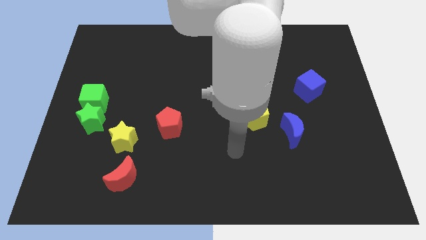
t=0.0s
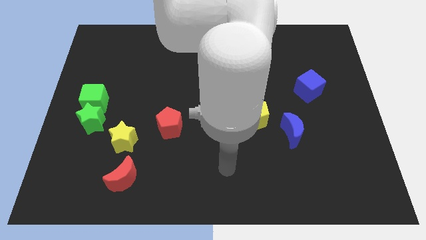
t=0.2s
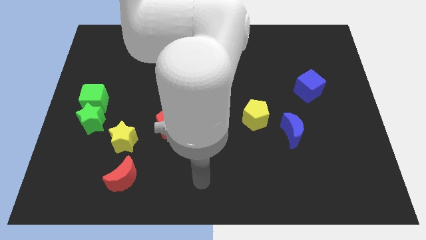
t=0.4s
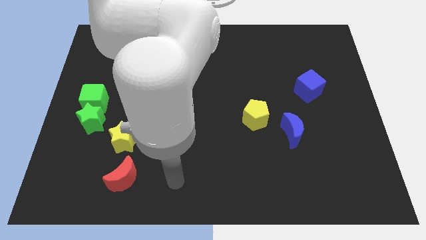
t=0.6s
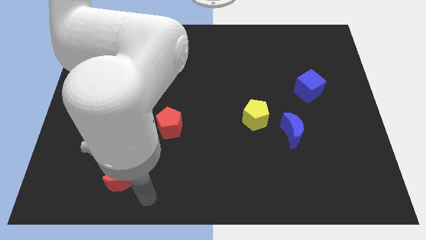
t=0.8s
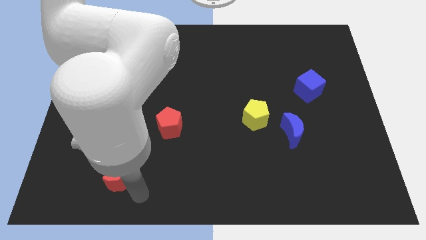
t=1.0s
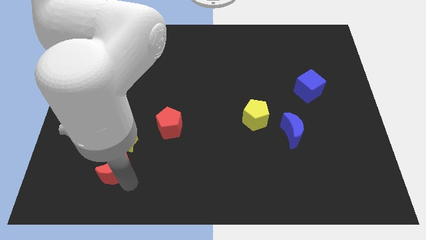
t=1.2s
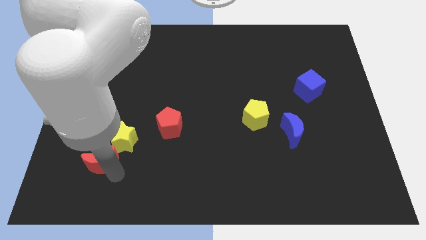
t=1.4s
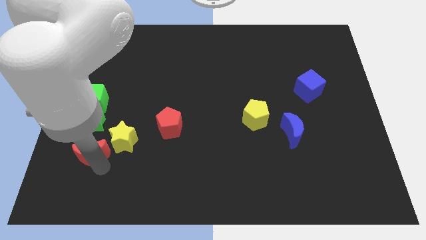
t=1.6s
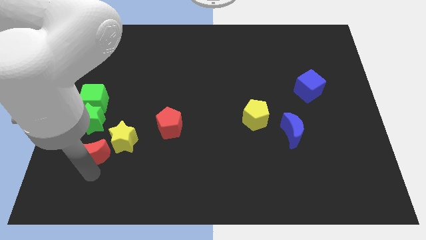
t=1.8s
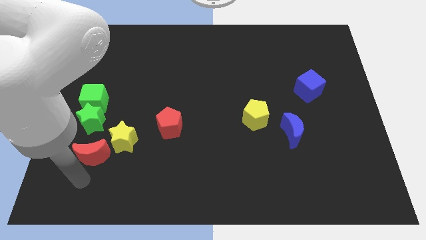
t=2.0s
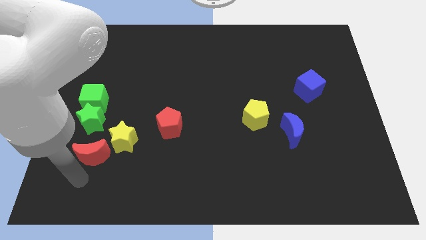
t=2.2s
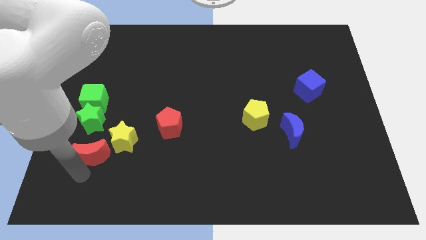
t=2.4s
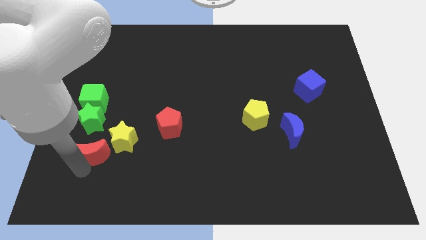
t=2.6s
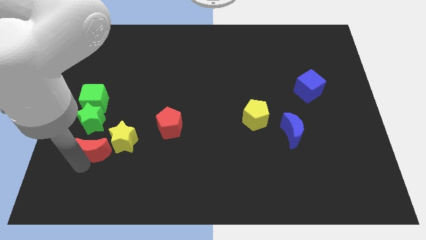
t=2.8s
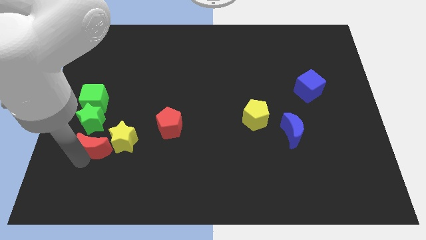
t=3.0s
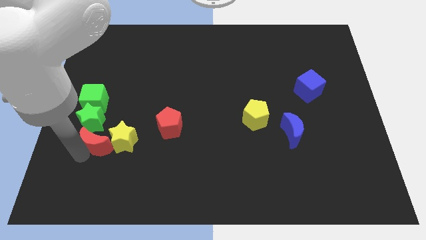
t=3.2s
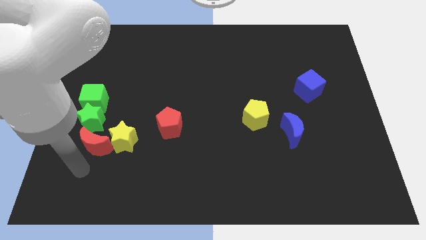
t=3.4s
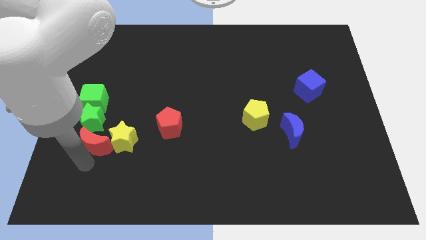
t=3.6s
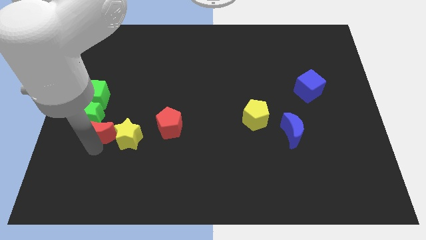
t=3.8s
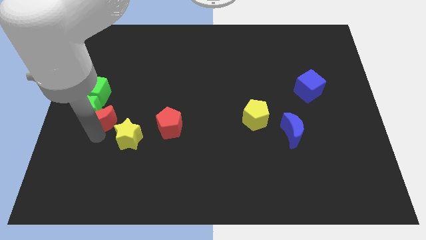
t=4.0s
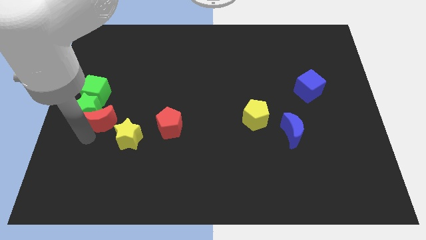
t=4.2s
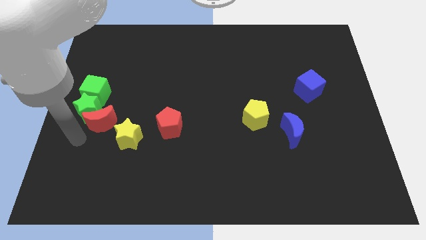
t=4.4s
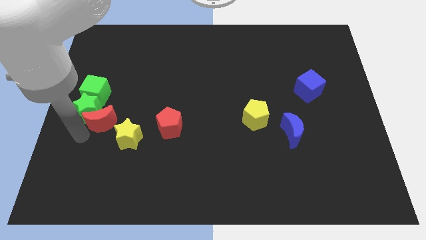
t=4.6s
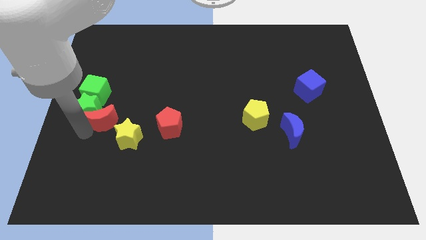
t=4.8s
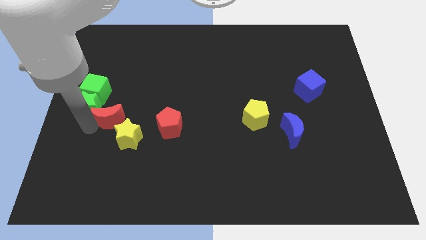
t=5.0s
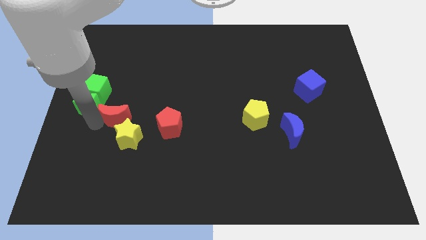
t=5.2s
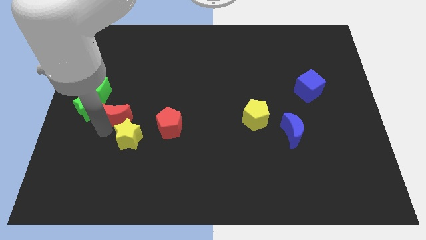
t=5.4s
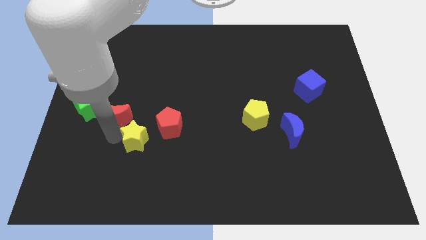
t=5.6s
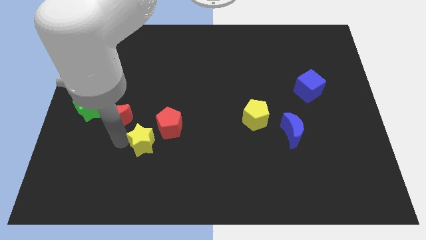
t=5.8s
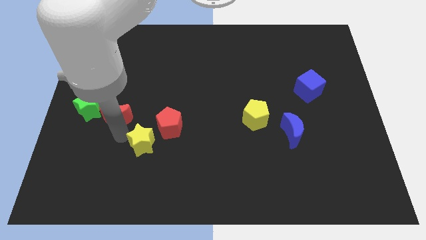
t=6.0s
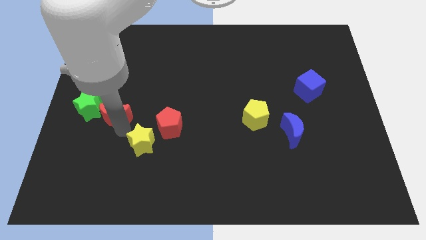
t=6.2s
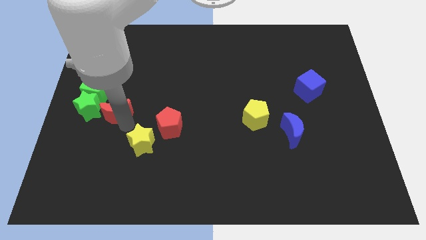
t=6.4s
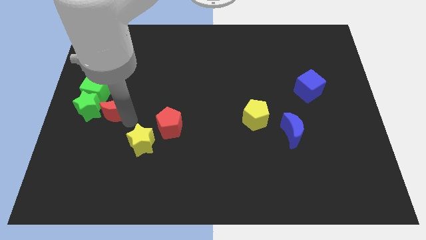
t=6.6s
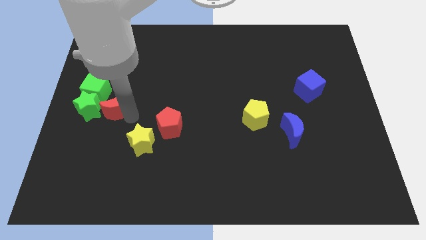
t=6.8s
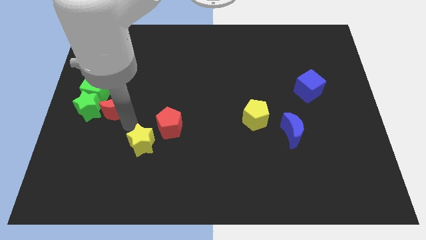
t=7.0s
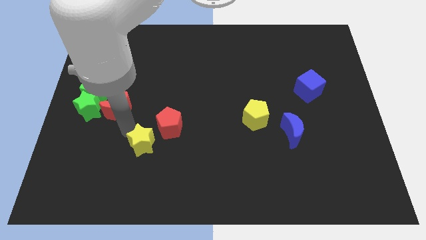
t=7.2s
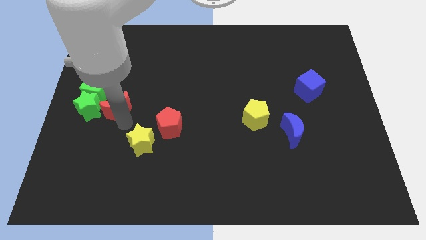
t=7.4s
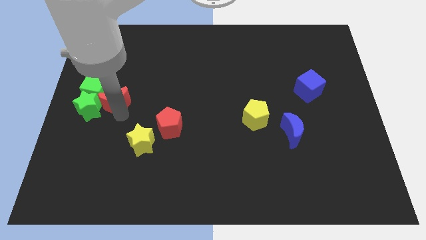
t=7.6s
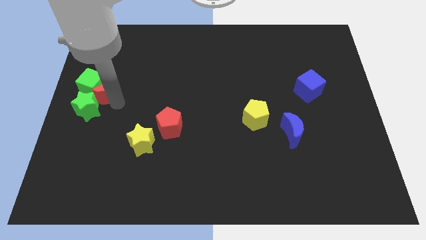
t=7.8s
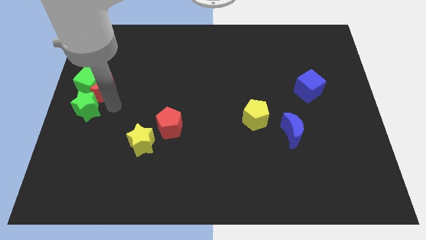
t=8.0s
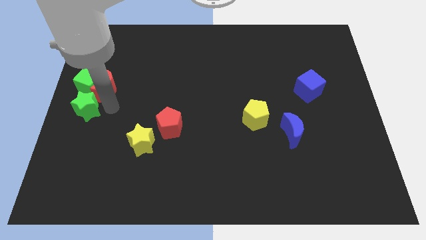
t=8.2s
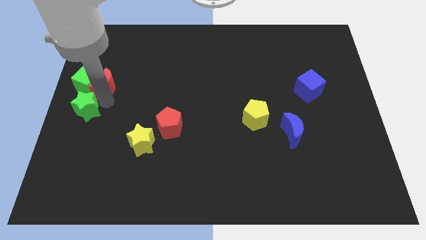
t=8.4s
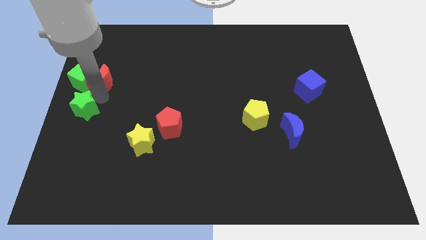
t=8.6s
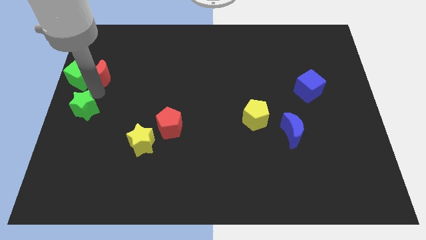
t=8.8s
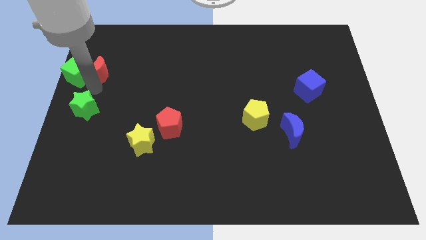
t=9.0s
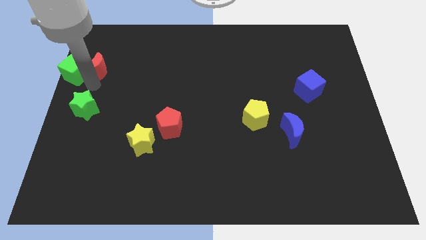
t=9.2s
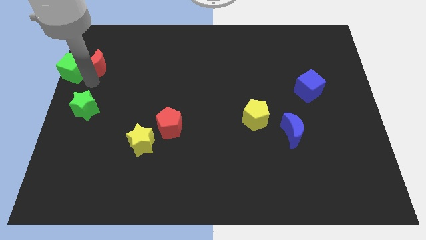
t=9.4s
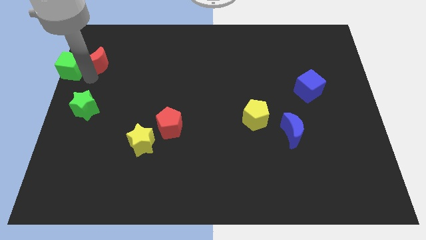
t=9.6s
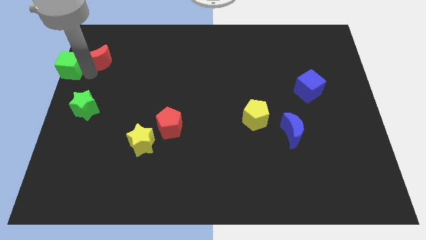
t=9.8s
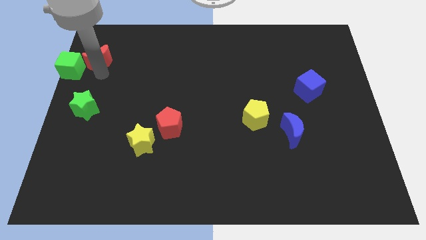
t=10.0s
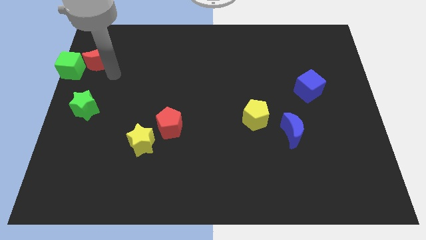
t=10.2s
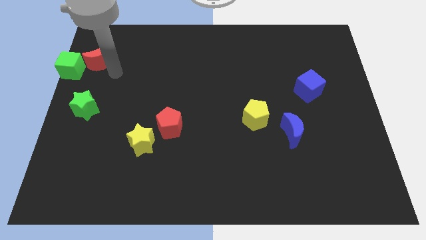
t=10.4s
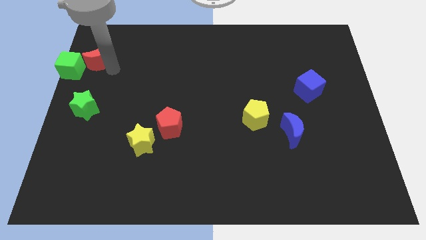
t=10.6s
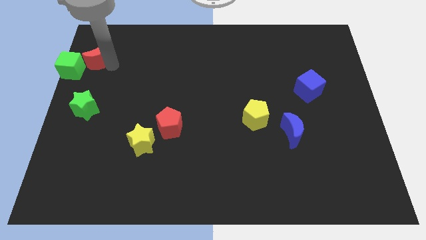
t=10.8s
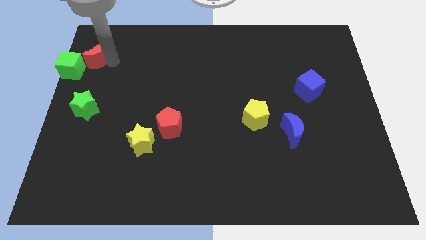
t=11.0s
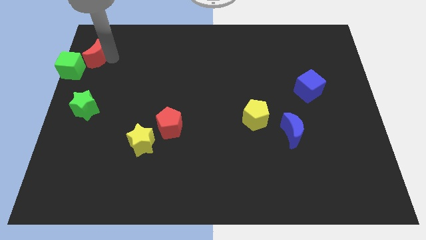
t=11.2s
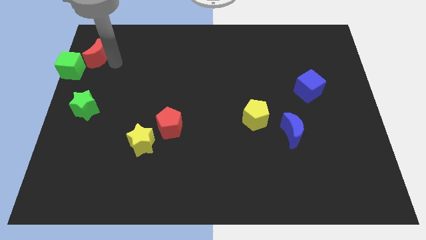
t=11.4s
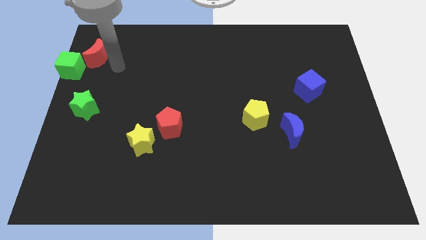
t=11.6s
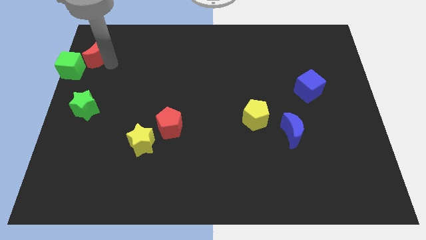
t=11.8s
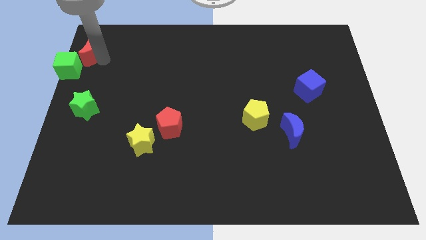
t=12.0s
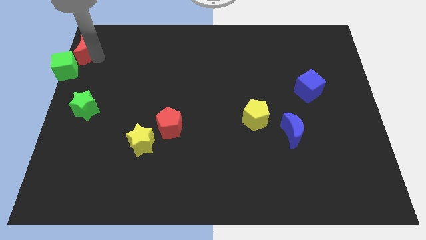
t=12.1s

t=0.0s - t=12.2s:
slide the red moon to the upper left corner
